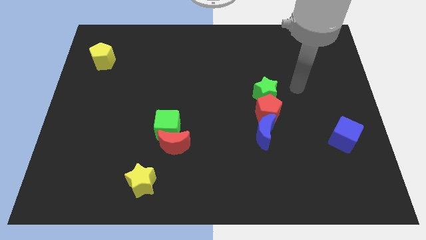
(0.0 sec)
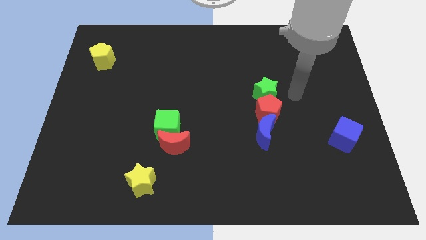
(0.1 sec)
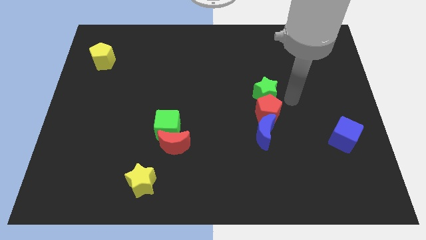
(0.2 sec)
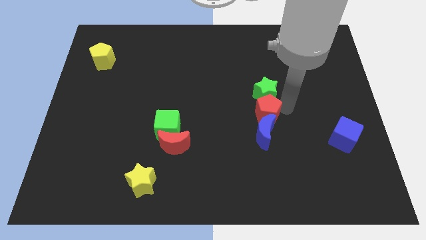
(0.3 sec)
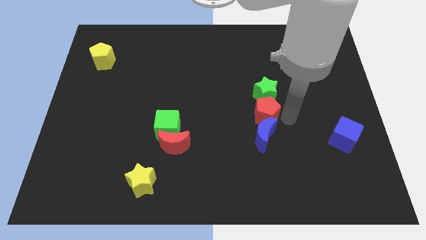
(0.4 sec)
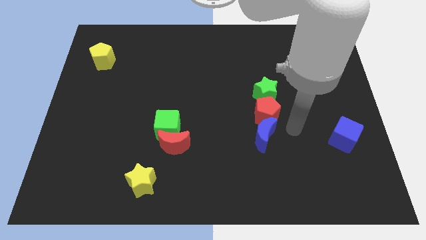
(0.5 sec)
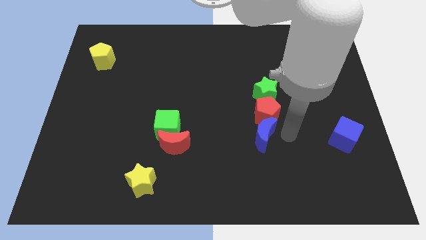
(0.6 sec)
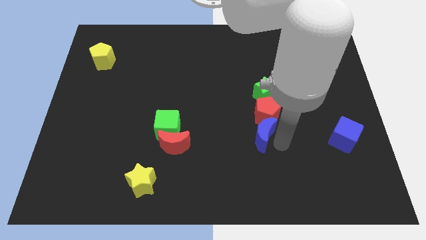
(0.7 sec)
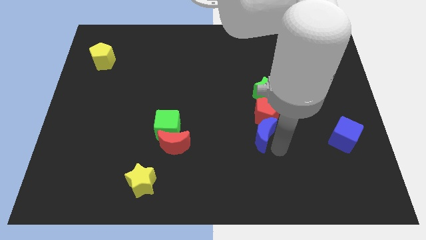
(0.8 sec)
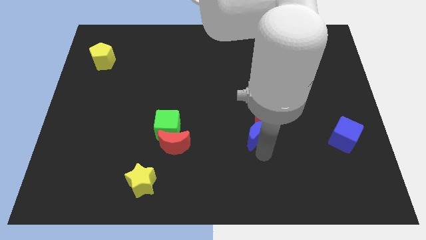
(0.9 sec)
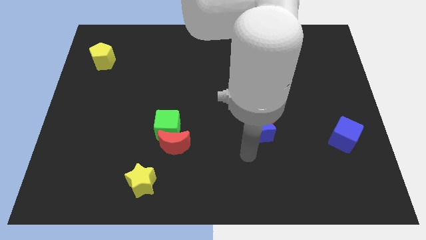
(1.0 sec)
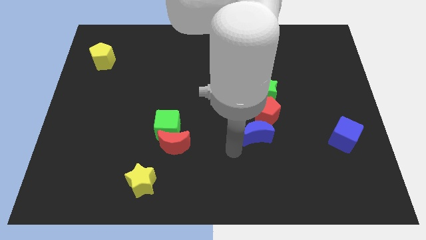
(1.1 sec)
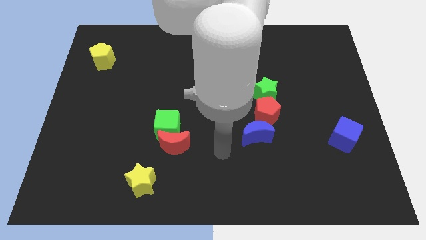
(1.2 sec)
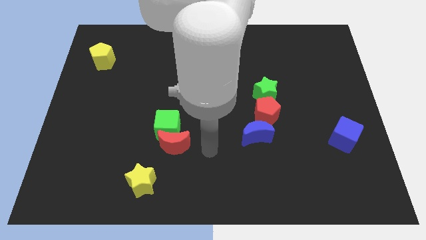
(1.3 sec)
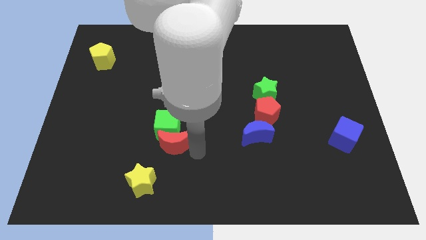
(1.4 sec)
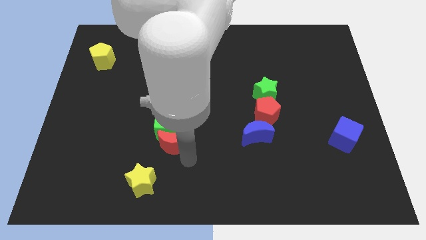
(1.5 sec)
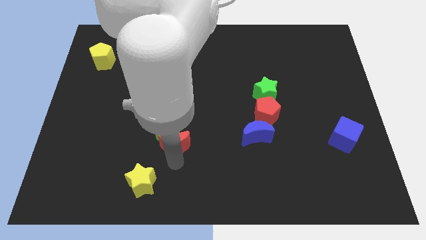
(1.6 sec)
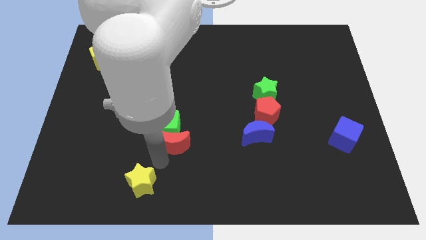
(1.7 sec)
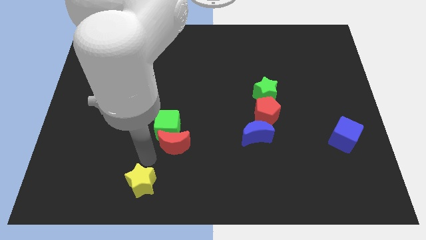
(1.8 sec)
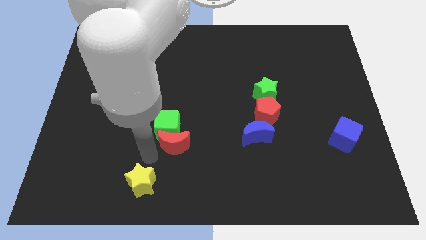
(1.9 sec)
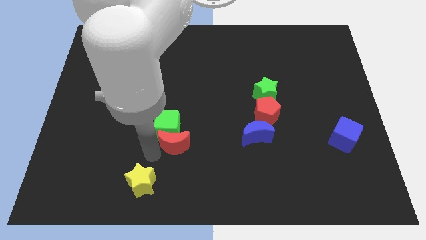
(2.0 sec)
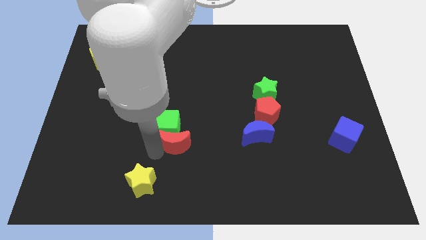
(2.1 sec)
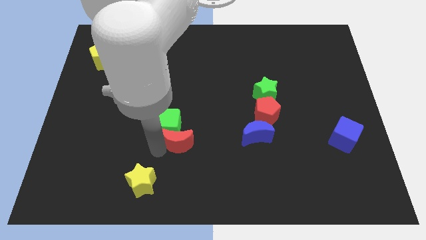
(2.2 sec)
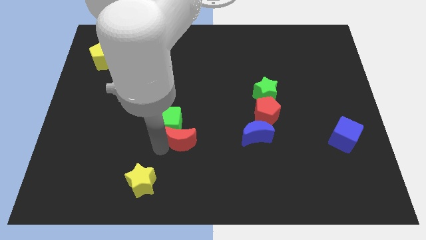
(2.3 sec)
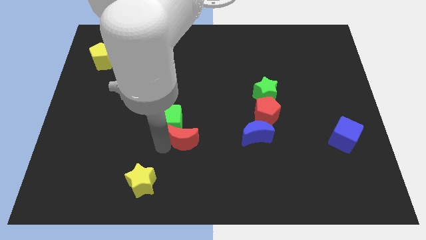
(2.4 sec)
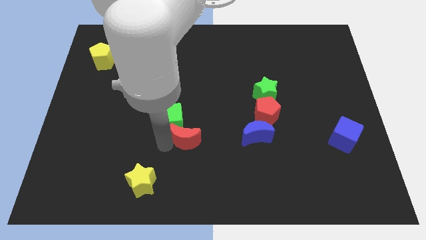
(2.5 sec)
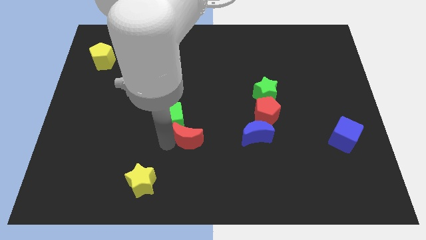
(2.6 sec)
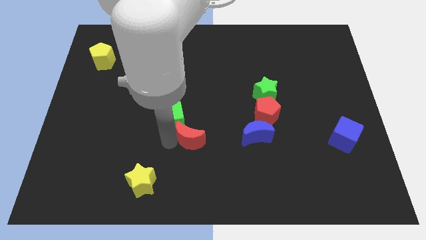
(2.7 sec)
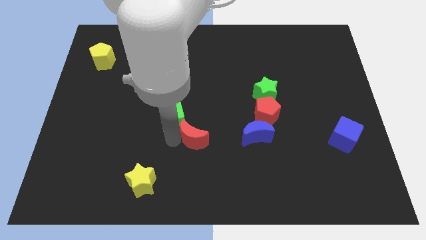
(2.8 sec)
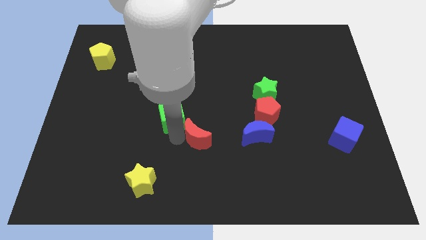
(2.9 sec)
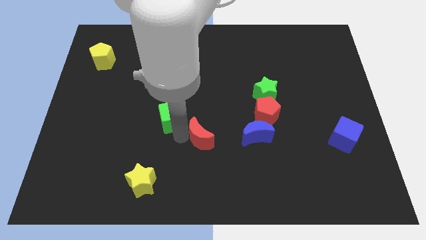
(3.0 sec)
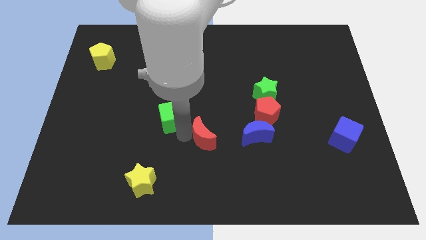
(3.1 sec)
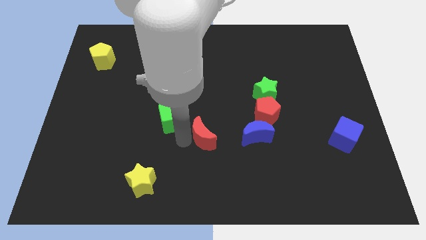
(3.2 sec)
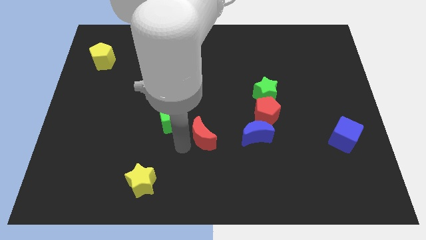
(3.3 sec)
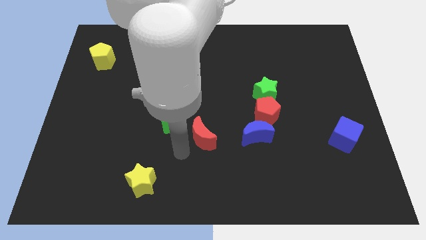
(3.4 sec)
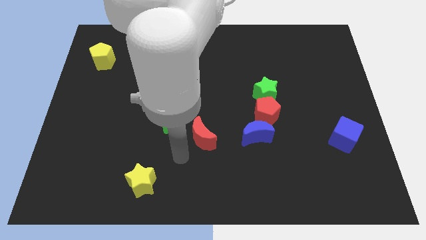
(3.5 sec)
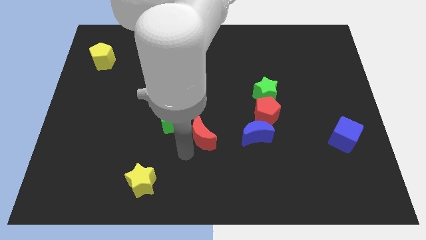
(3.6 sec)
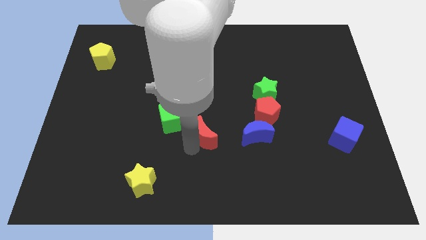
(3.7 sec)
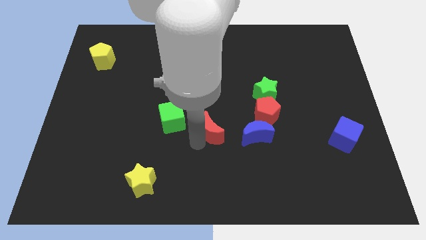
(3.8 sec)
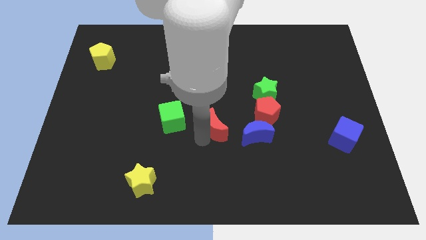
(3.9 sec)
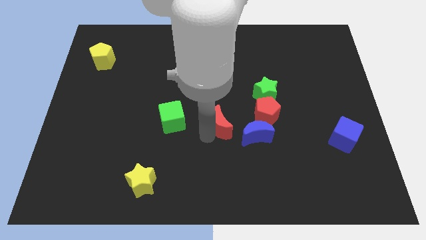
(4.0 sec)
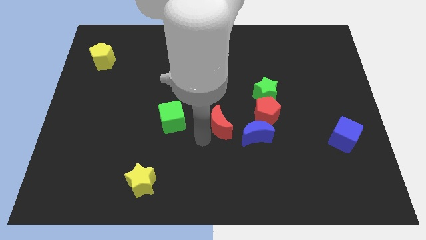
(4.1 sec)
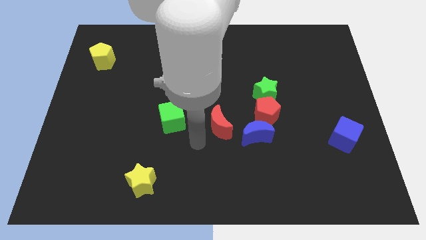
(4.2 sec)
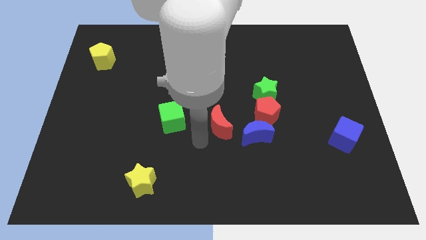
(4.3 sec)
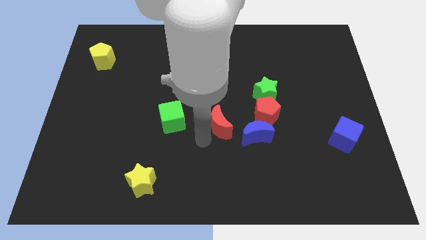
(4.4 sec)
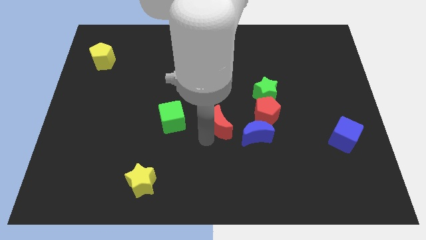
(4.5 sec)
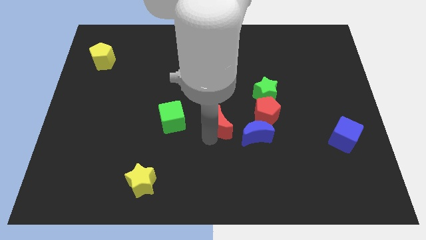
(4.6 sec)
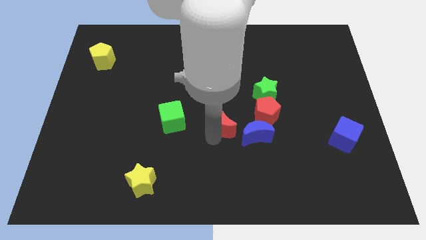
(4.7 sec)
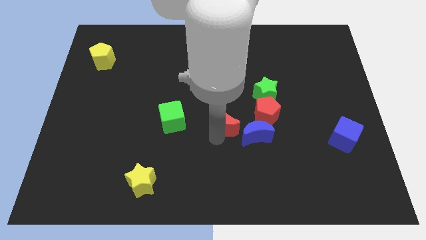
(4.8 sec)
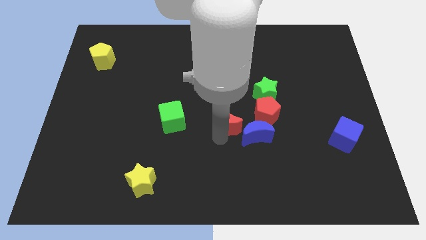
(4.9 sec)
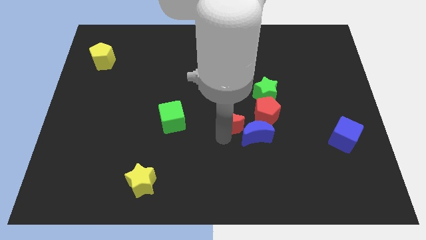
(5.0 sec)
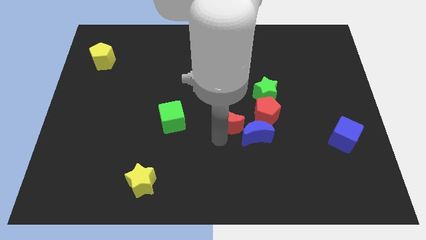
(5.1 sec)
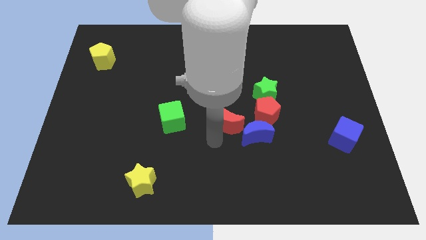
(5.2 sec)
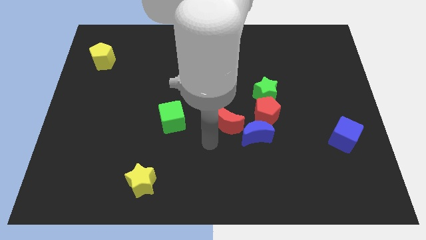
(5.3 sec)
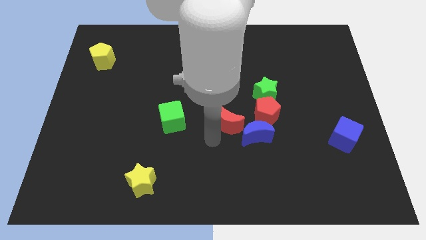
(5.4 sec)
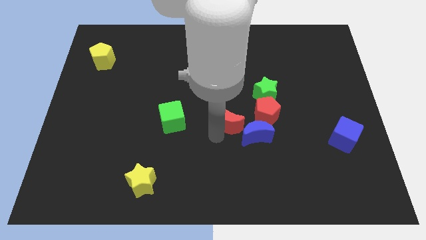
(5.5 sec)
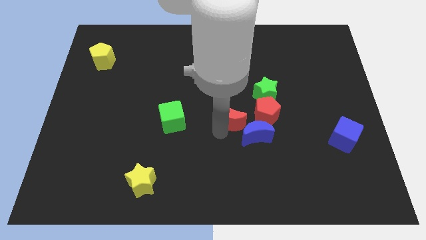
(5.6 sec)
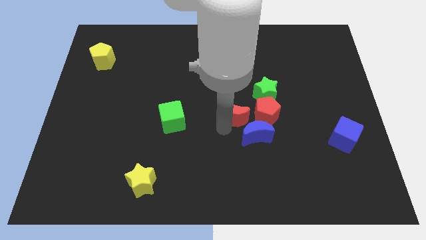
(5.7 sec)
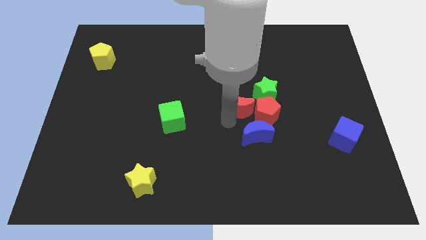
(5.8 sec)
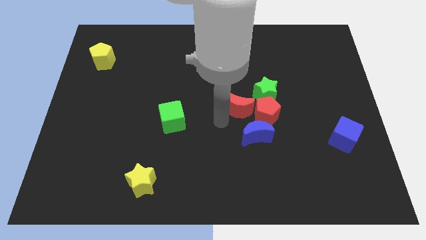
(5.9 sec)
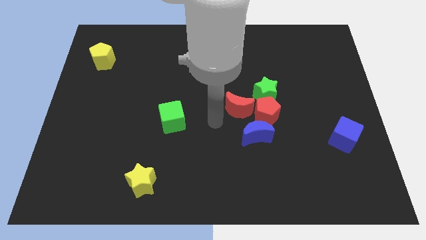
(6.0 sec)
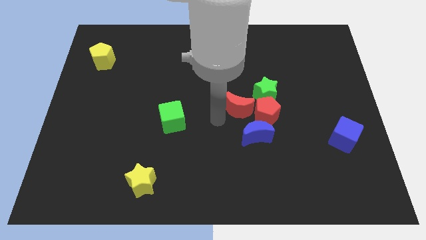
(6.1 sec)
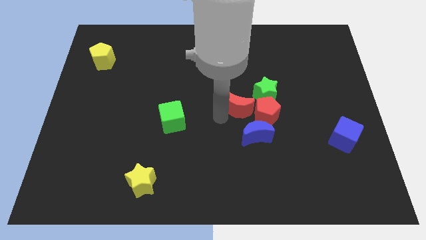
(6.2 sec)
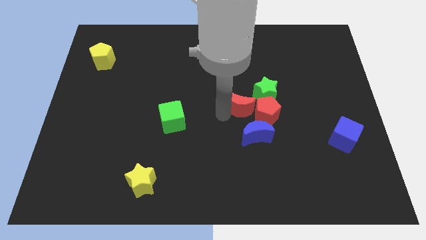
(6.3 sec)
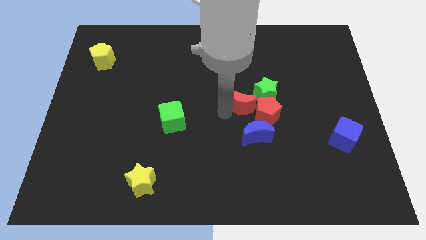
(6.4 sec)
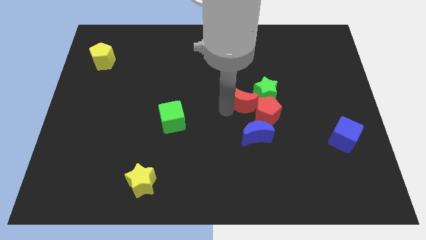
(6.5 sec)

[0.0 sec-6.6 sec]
slide the red moon to the green star

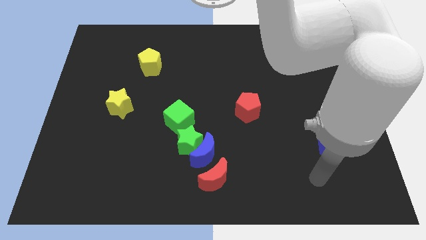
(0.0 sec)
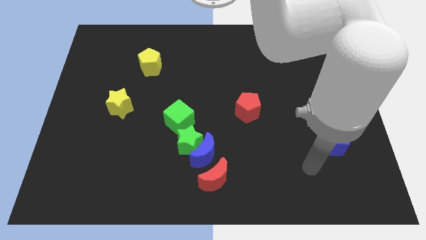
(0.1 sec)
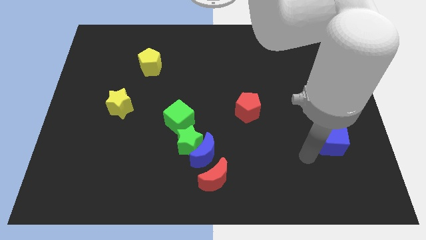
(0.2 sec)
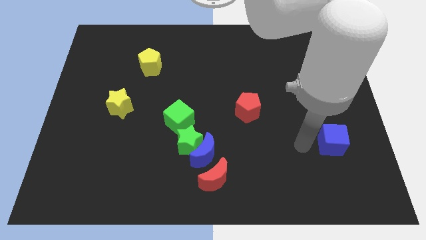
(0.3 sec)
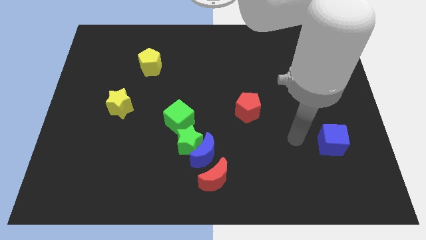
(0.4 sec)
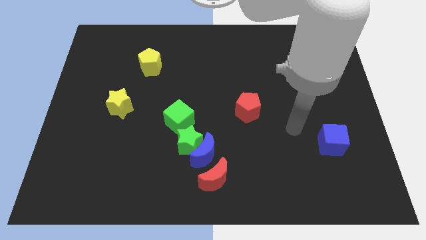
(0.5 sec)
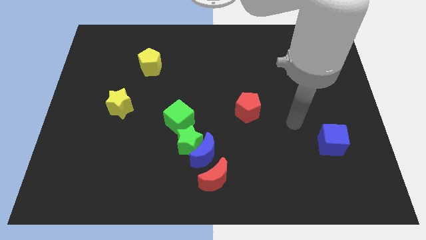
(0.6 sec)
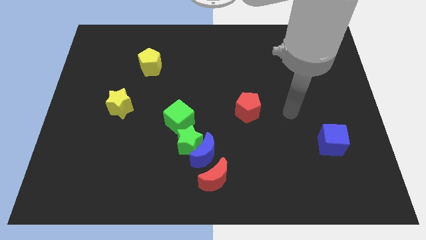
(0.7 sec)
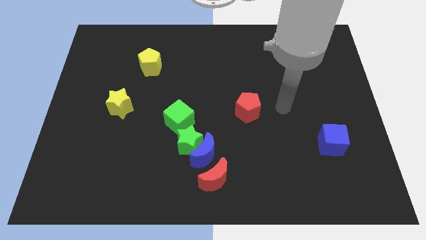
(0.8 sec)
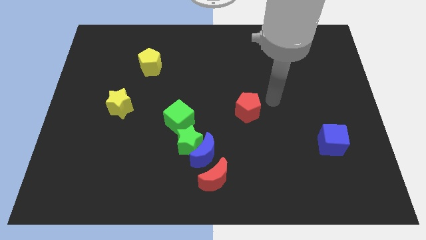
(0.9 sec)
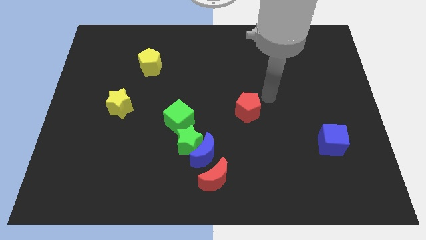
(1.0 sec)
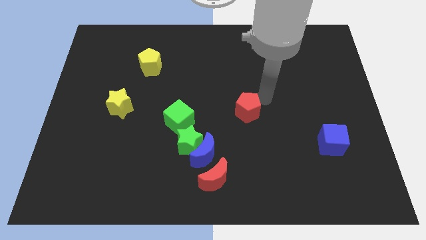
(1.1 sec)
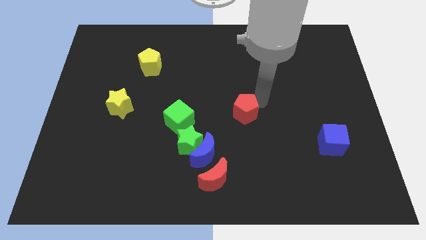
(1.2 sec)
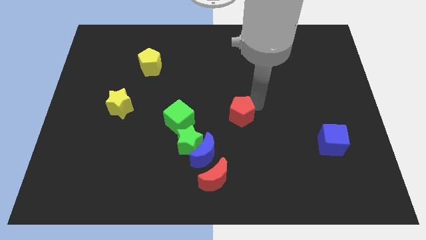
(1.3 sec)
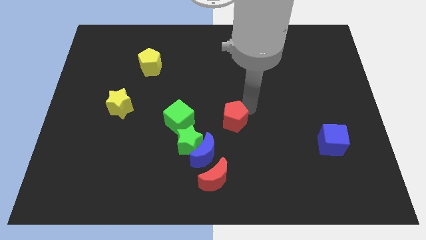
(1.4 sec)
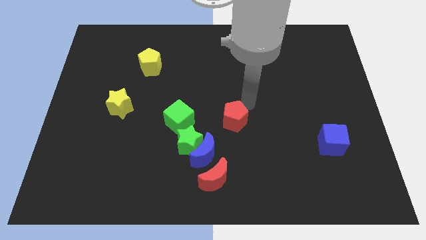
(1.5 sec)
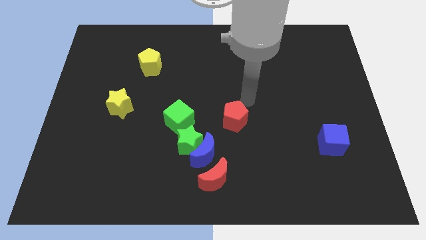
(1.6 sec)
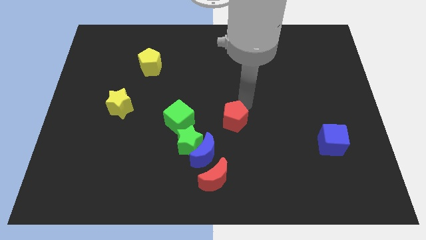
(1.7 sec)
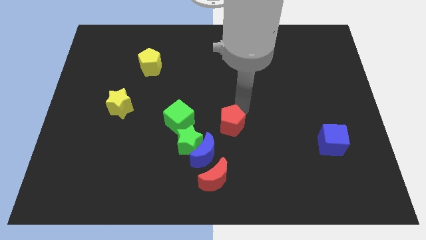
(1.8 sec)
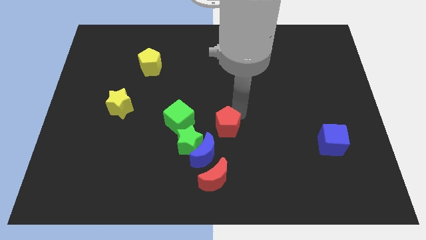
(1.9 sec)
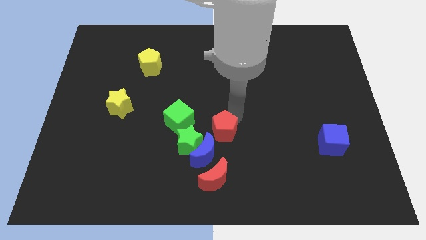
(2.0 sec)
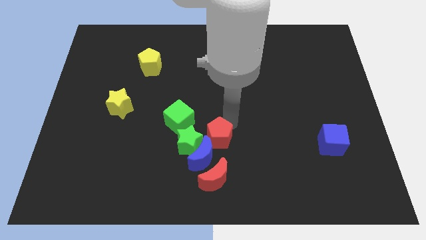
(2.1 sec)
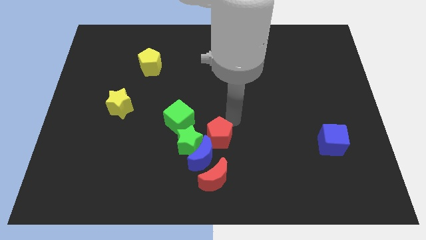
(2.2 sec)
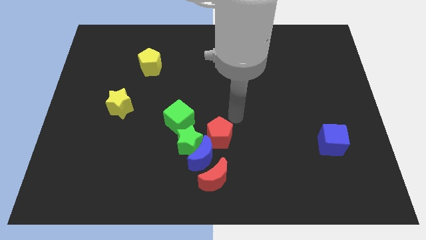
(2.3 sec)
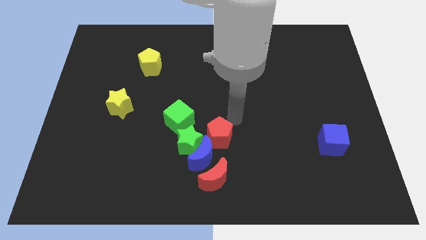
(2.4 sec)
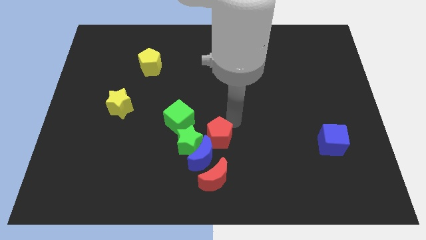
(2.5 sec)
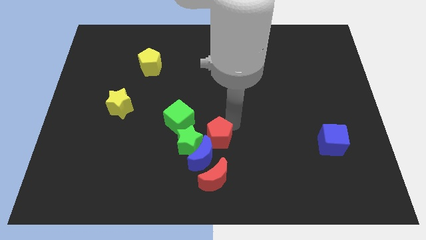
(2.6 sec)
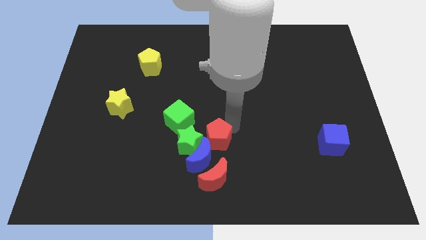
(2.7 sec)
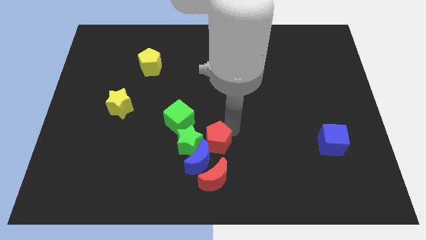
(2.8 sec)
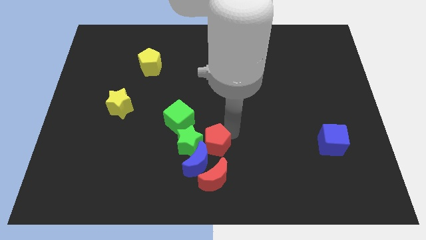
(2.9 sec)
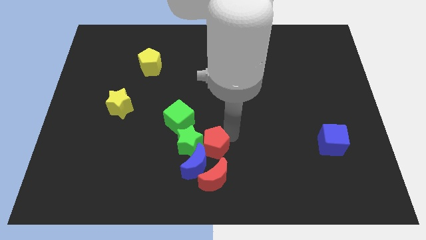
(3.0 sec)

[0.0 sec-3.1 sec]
put the red pentagon next to the blue moon
